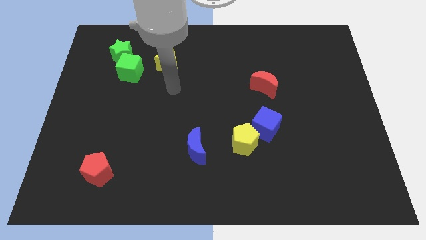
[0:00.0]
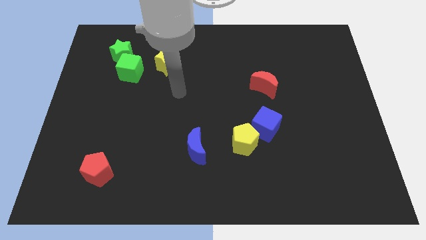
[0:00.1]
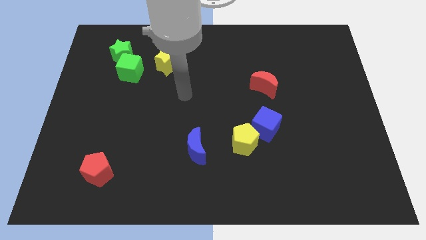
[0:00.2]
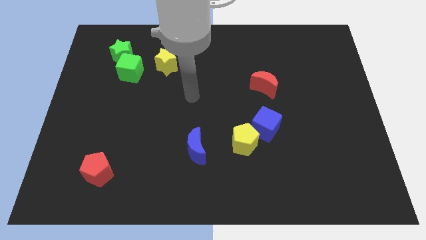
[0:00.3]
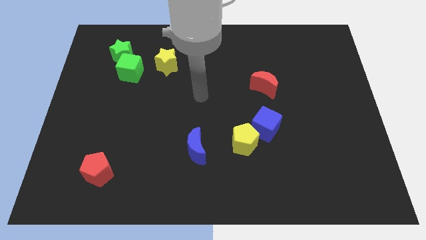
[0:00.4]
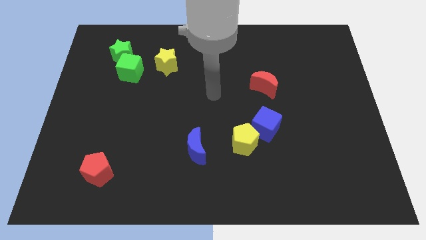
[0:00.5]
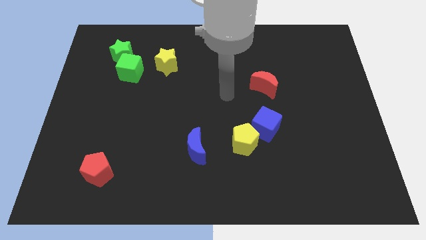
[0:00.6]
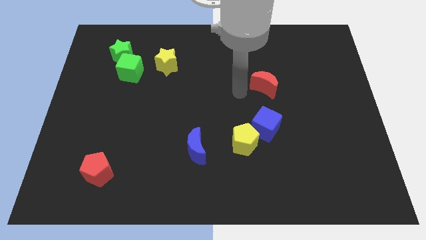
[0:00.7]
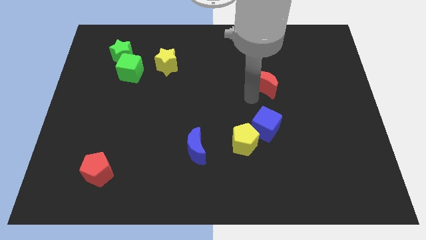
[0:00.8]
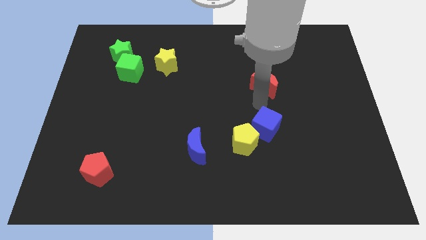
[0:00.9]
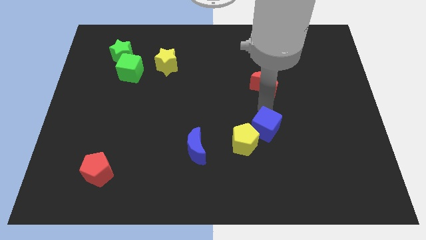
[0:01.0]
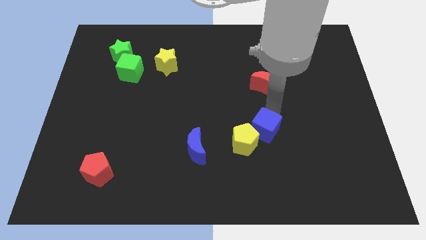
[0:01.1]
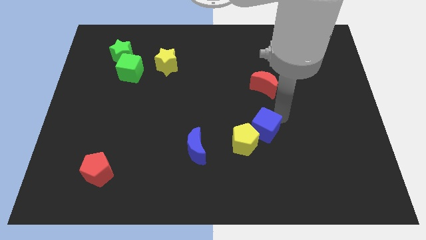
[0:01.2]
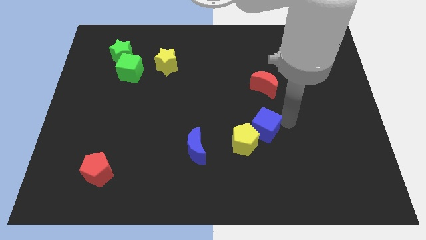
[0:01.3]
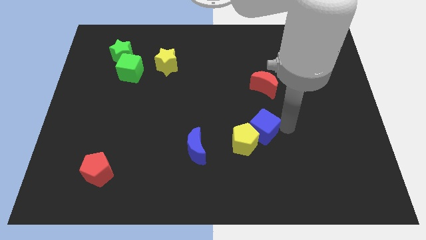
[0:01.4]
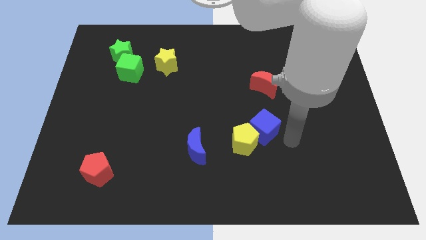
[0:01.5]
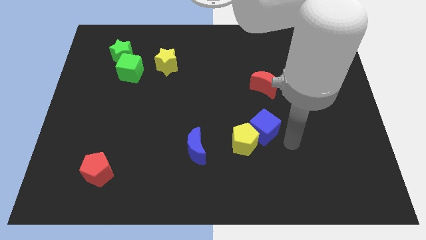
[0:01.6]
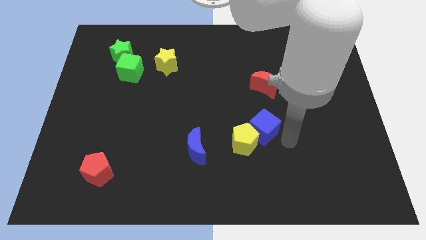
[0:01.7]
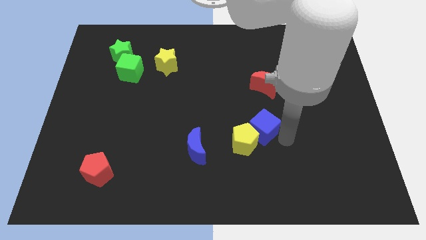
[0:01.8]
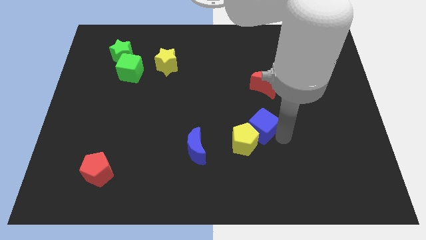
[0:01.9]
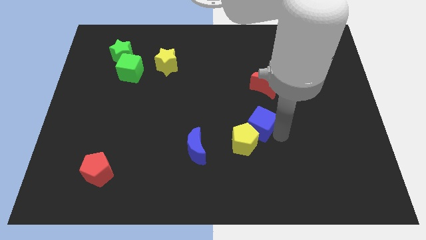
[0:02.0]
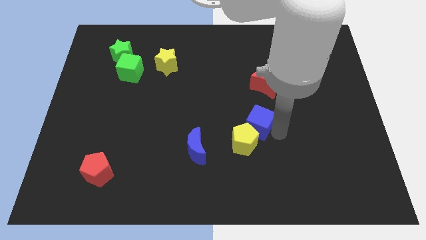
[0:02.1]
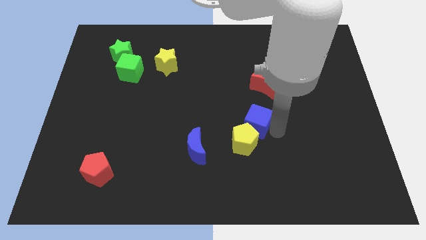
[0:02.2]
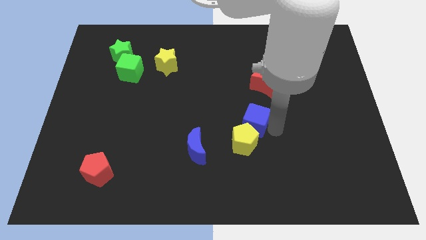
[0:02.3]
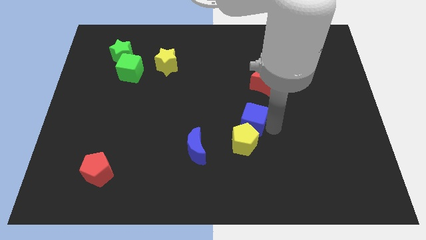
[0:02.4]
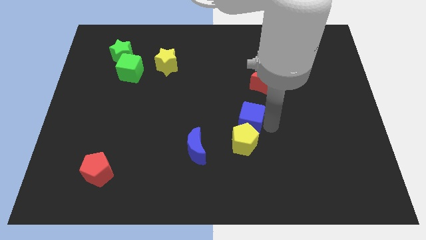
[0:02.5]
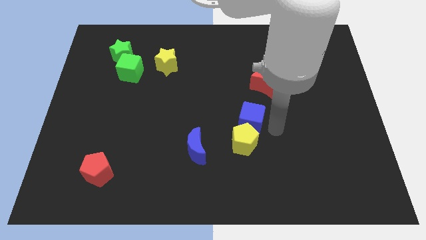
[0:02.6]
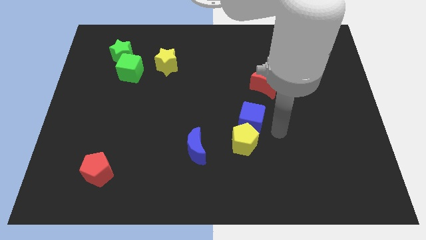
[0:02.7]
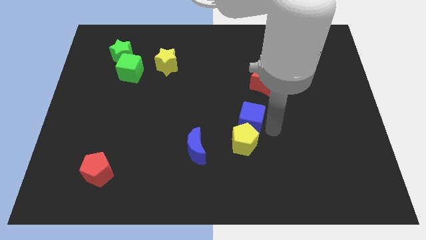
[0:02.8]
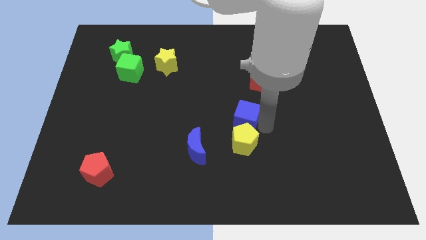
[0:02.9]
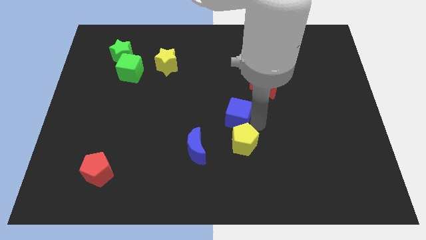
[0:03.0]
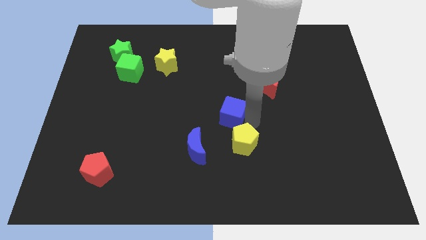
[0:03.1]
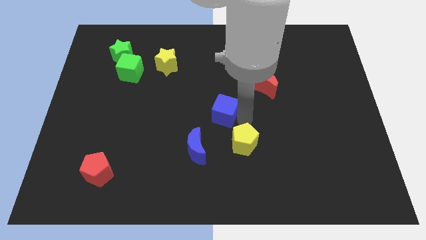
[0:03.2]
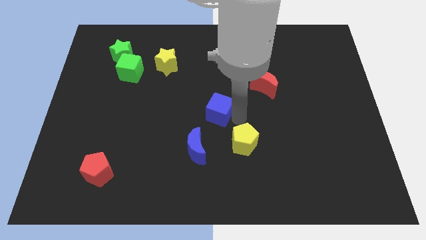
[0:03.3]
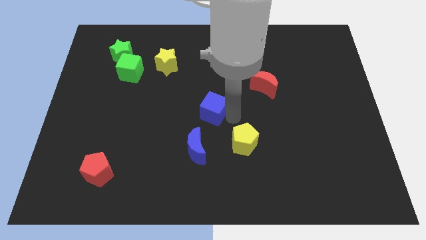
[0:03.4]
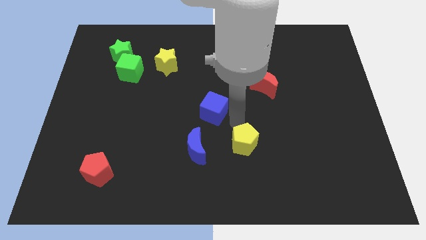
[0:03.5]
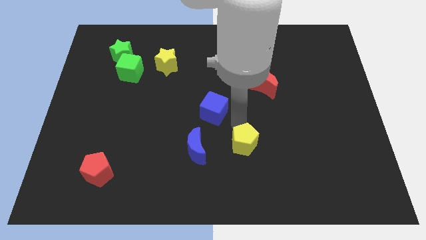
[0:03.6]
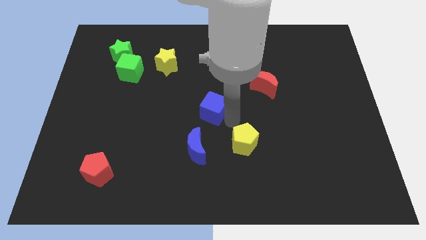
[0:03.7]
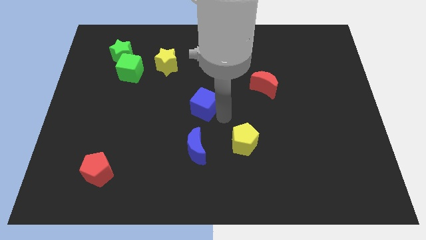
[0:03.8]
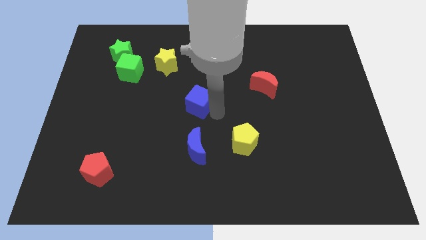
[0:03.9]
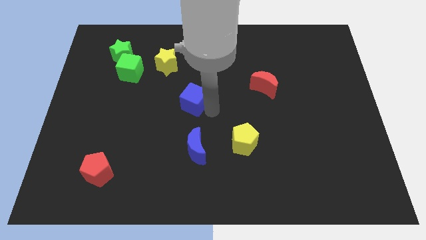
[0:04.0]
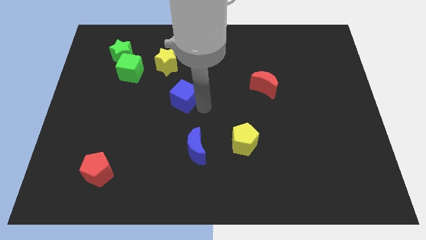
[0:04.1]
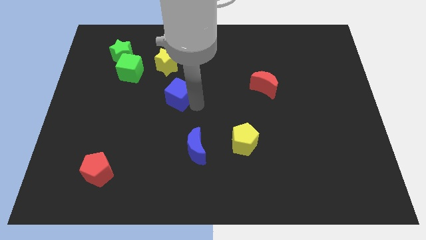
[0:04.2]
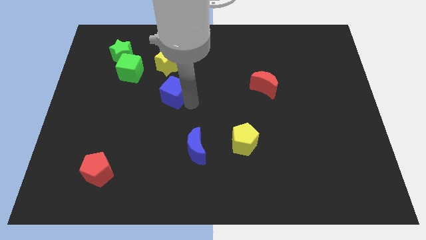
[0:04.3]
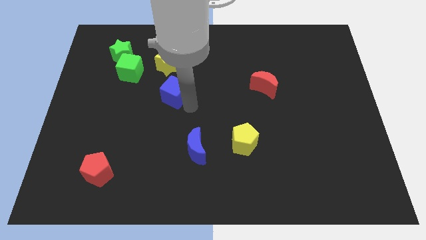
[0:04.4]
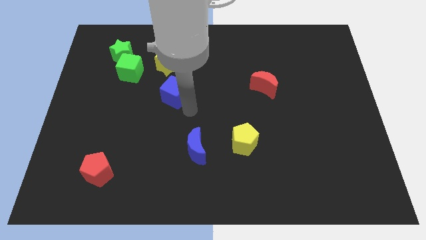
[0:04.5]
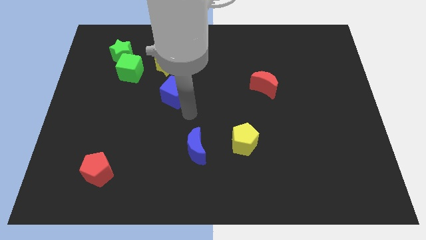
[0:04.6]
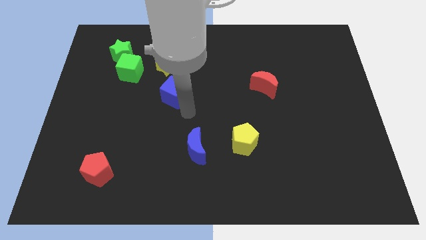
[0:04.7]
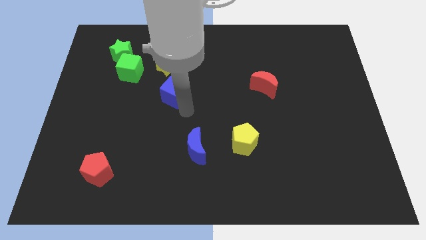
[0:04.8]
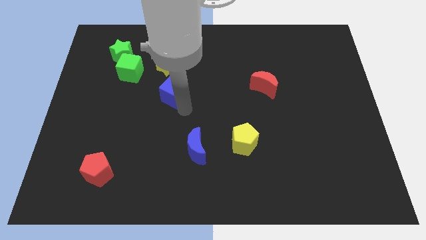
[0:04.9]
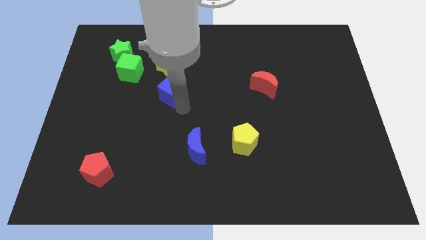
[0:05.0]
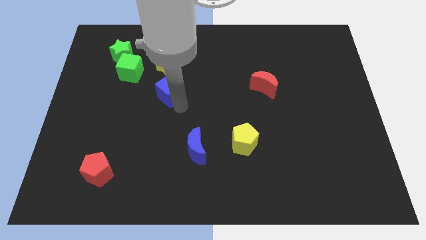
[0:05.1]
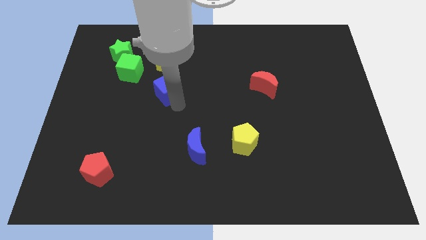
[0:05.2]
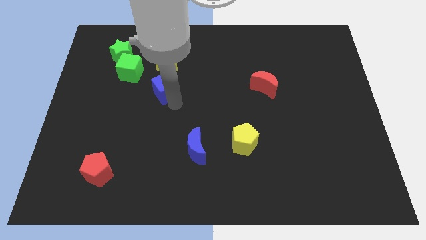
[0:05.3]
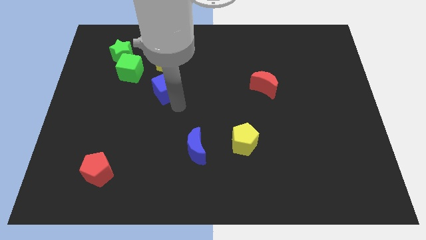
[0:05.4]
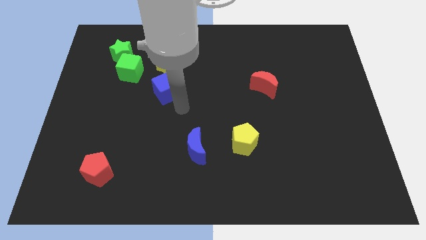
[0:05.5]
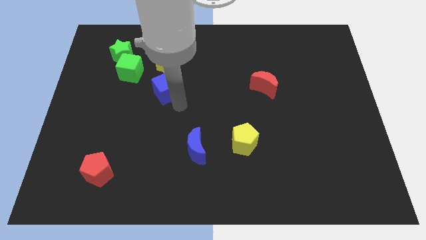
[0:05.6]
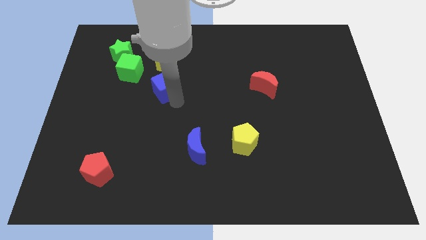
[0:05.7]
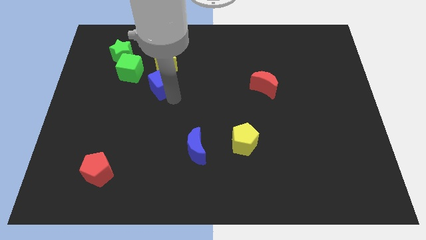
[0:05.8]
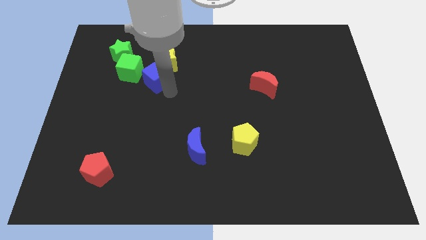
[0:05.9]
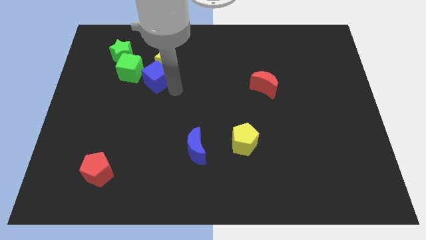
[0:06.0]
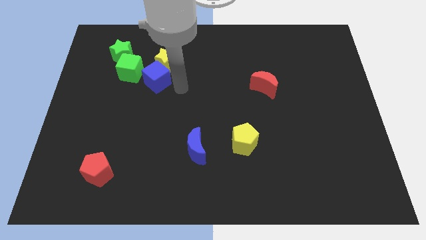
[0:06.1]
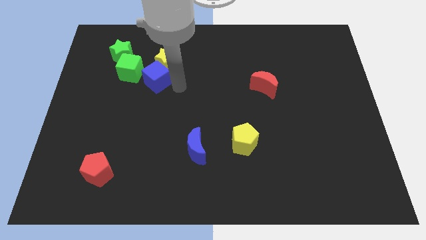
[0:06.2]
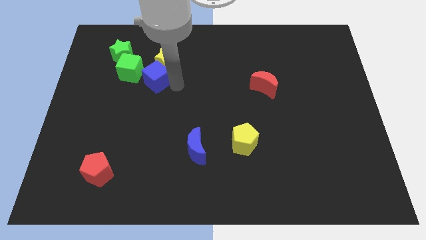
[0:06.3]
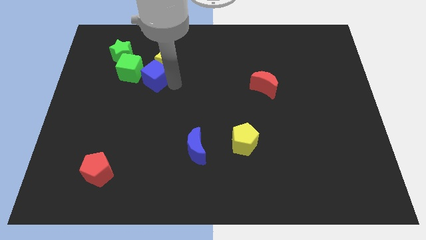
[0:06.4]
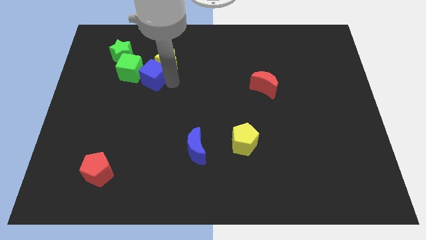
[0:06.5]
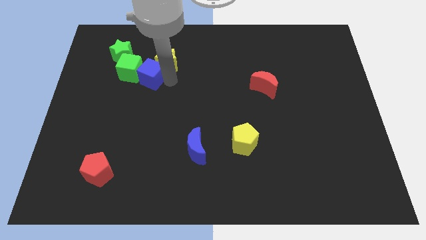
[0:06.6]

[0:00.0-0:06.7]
slide the blue cube close to the green cube

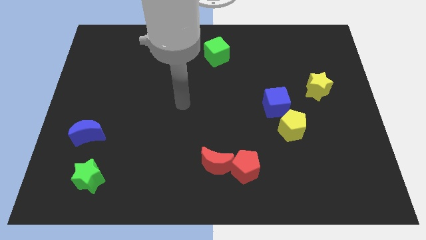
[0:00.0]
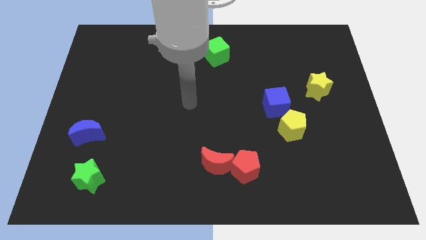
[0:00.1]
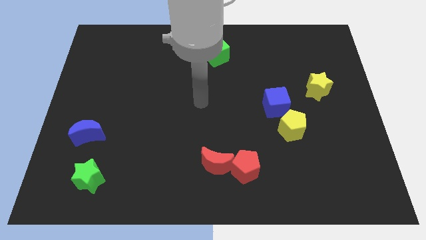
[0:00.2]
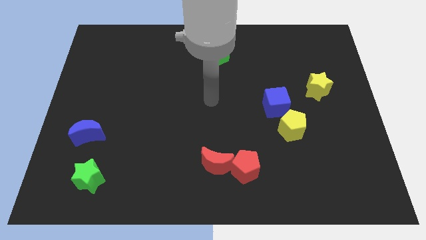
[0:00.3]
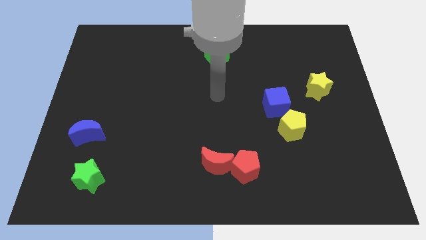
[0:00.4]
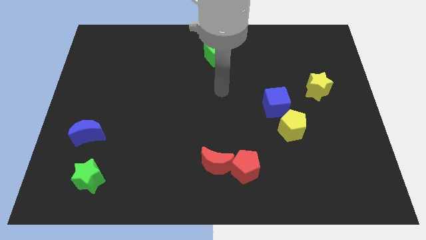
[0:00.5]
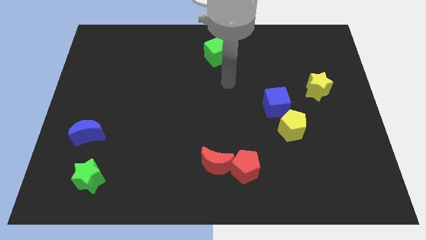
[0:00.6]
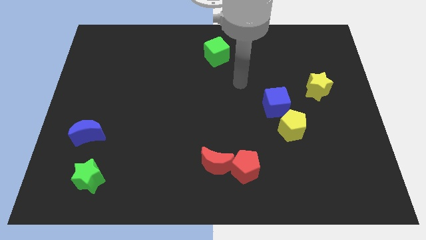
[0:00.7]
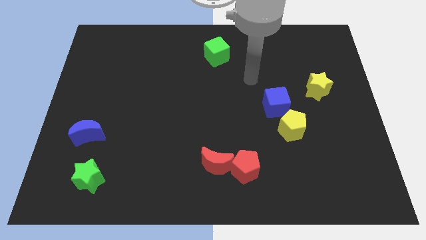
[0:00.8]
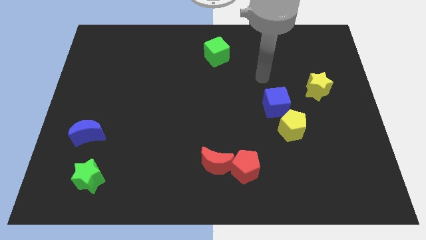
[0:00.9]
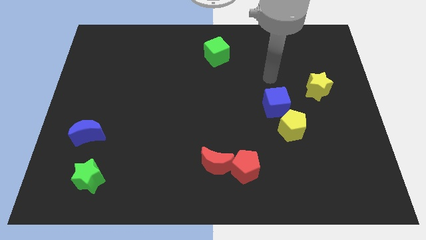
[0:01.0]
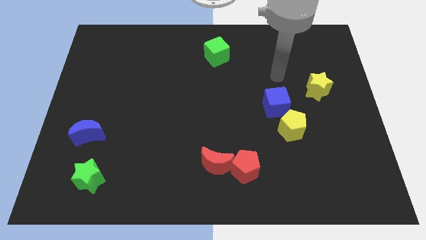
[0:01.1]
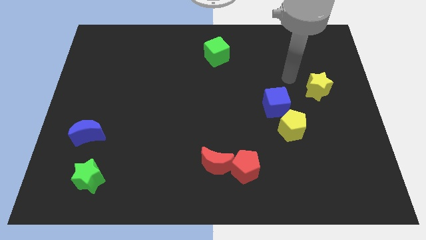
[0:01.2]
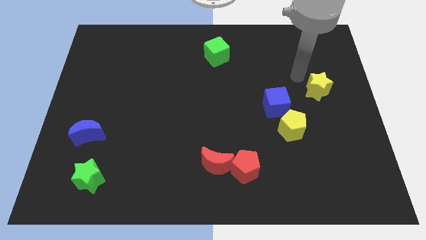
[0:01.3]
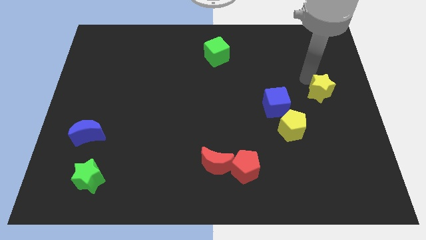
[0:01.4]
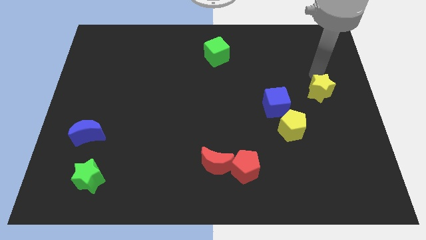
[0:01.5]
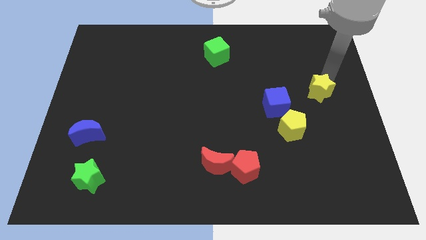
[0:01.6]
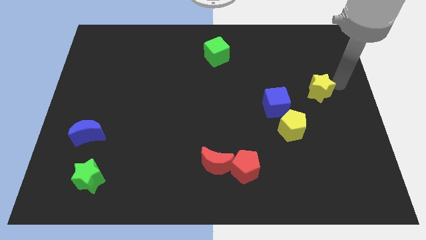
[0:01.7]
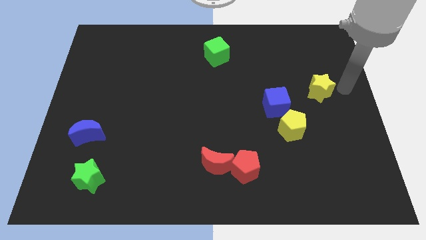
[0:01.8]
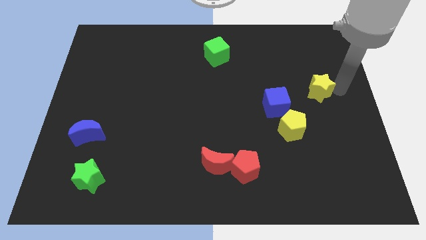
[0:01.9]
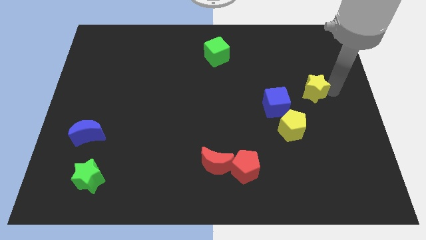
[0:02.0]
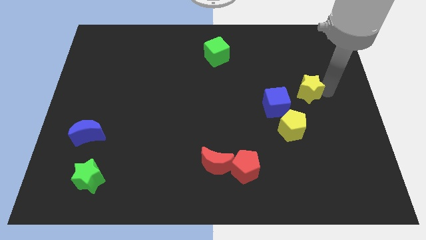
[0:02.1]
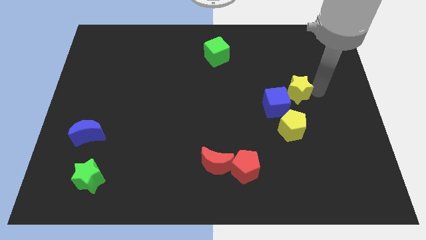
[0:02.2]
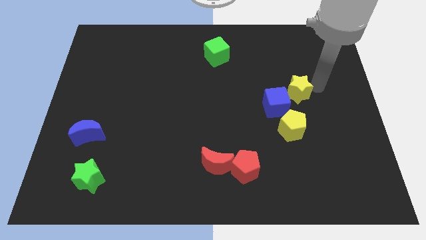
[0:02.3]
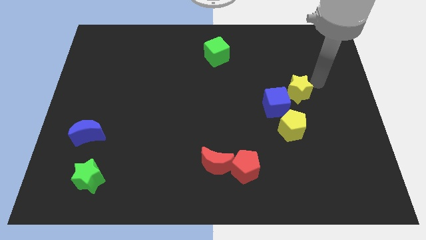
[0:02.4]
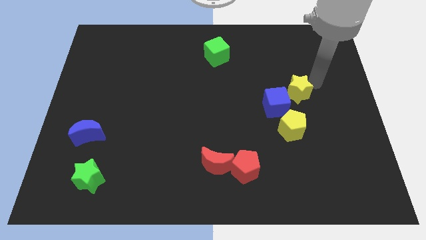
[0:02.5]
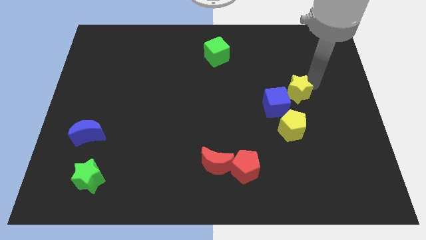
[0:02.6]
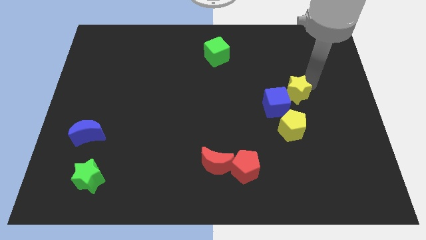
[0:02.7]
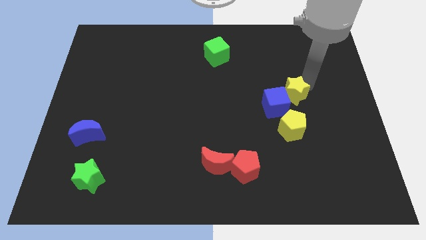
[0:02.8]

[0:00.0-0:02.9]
put the yellow star to the blue cube
